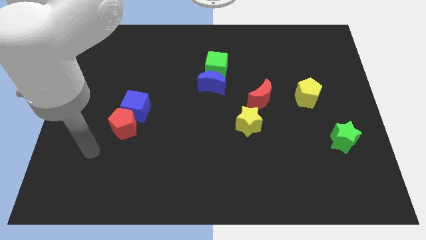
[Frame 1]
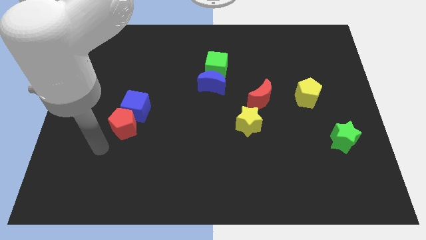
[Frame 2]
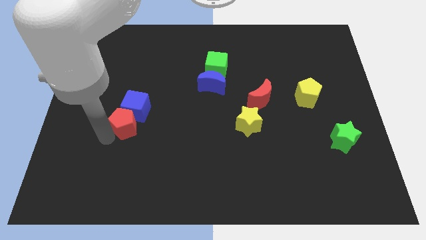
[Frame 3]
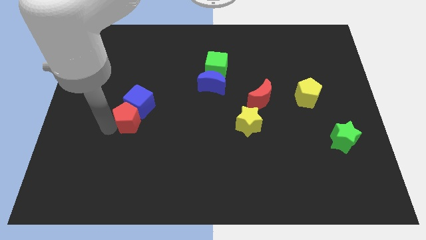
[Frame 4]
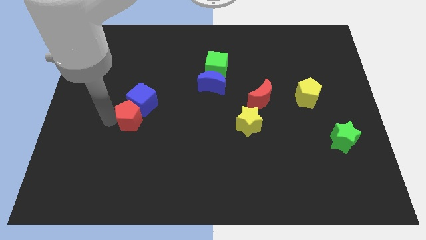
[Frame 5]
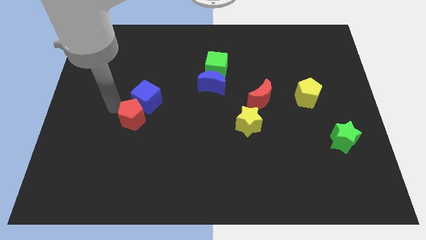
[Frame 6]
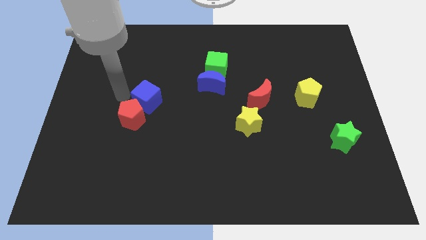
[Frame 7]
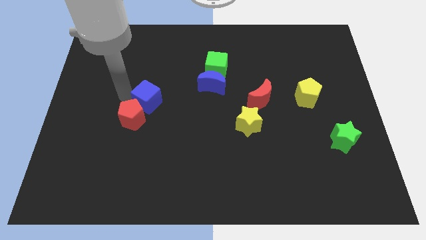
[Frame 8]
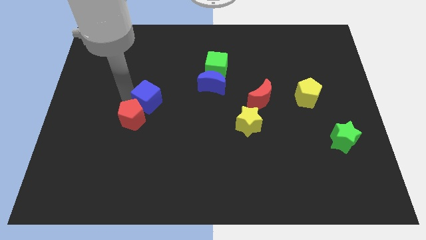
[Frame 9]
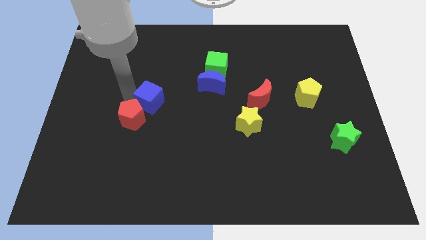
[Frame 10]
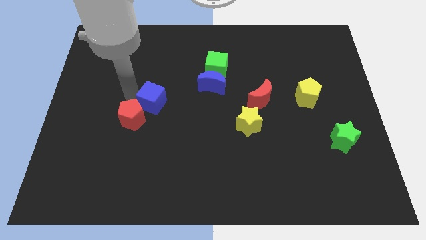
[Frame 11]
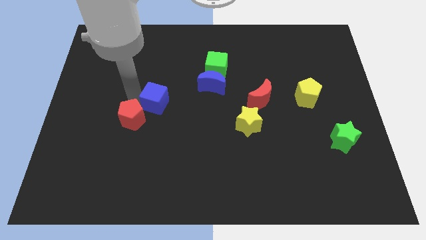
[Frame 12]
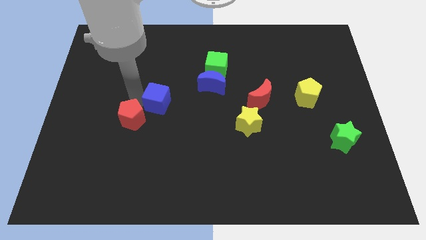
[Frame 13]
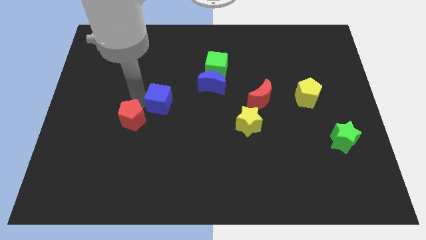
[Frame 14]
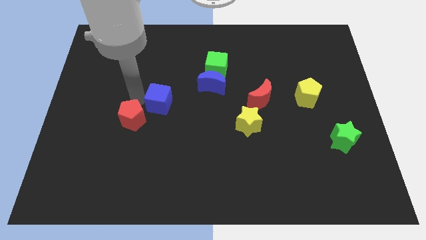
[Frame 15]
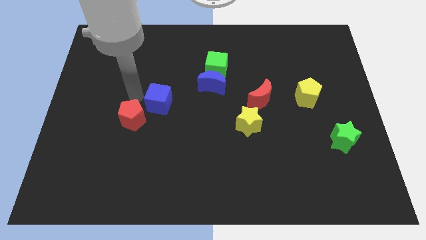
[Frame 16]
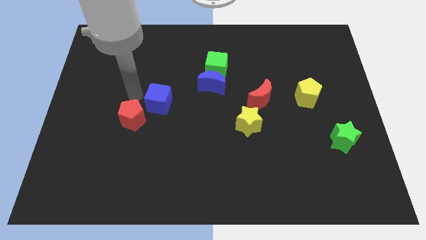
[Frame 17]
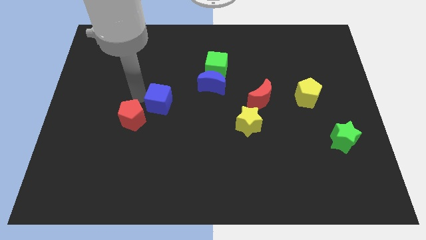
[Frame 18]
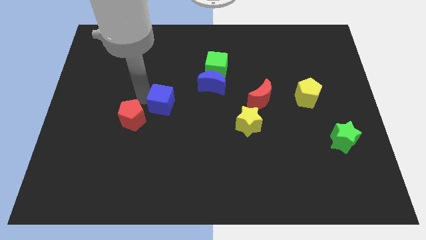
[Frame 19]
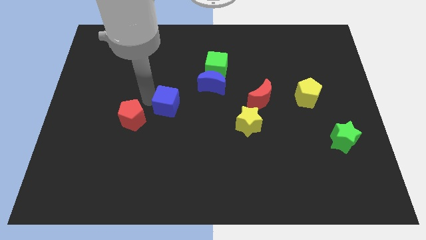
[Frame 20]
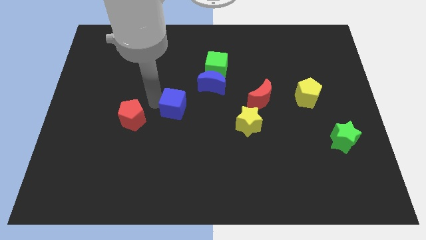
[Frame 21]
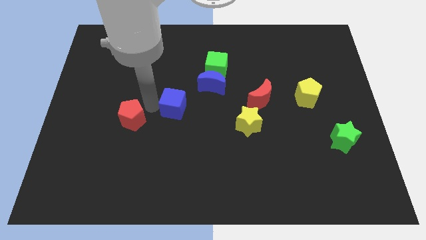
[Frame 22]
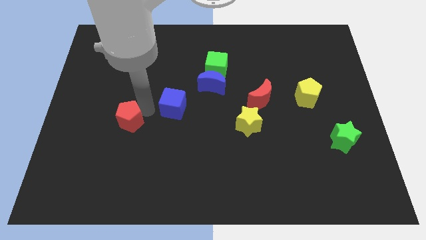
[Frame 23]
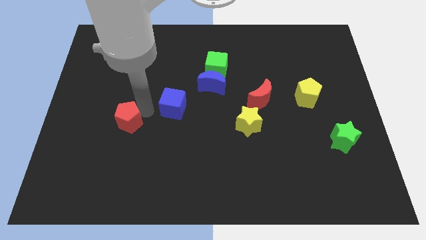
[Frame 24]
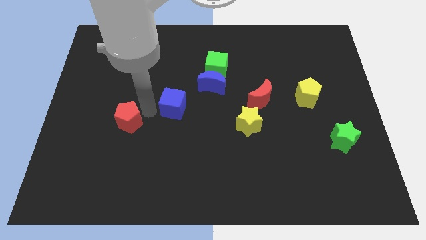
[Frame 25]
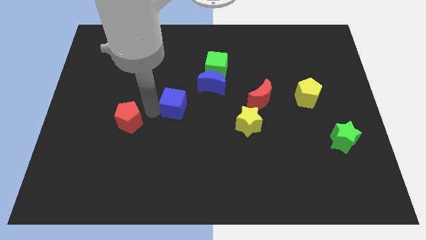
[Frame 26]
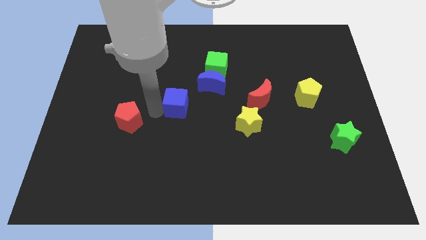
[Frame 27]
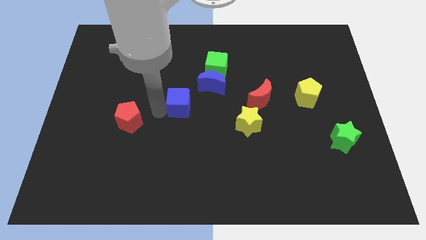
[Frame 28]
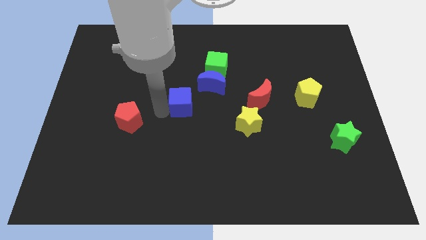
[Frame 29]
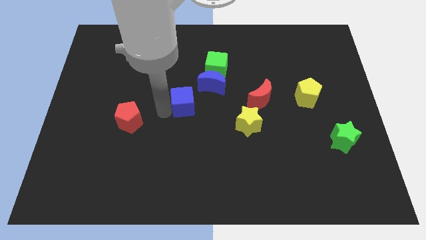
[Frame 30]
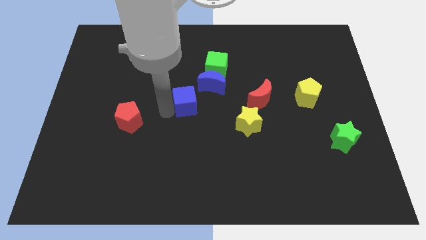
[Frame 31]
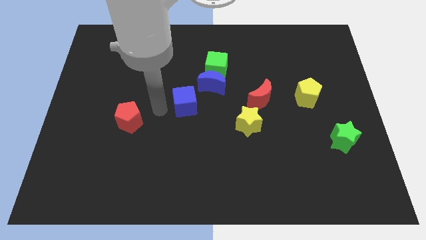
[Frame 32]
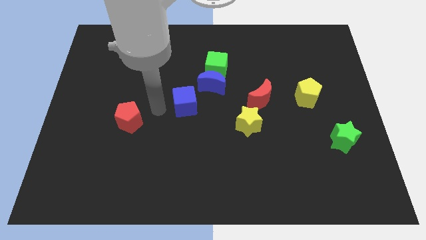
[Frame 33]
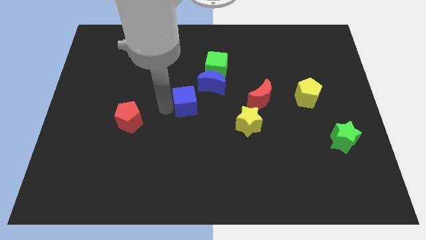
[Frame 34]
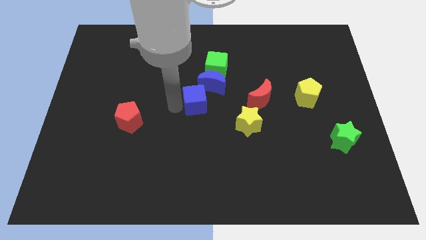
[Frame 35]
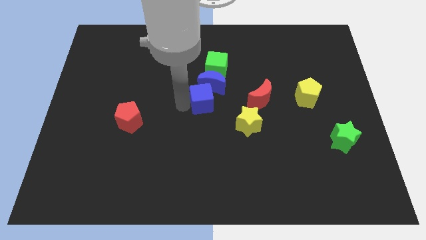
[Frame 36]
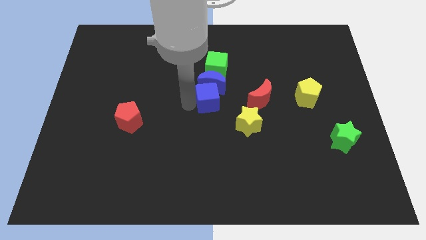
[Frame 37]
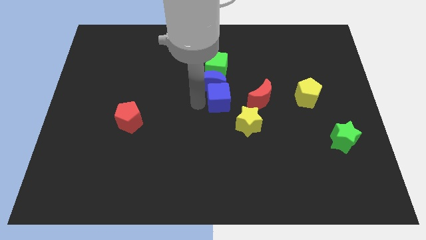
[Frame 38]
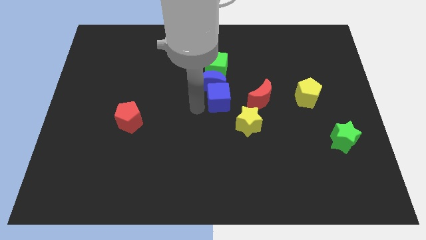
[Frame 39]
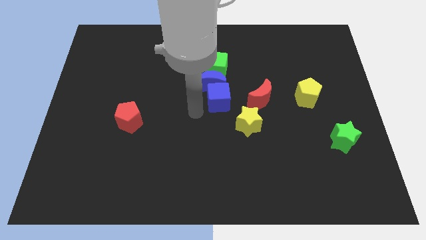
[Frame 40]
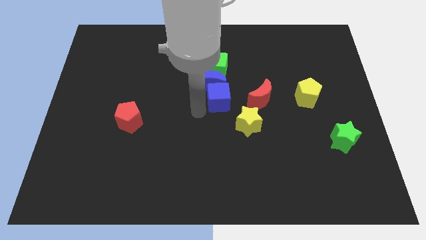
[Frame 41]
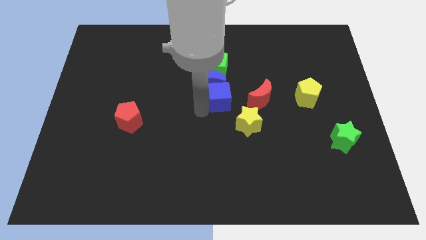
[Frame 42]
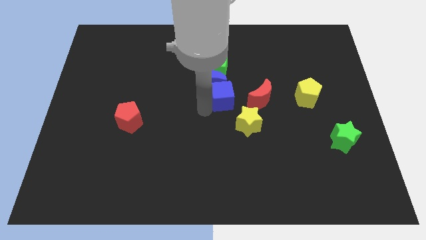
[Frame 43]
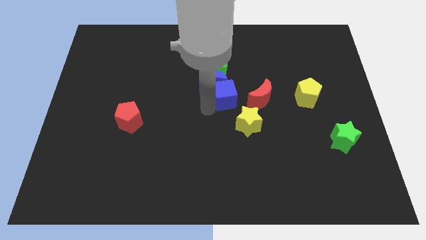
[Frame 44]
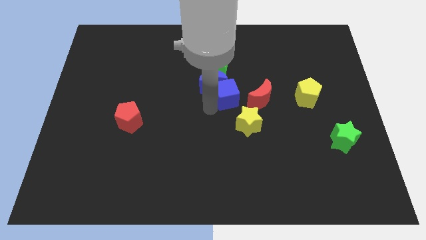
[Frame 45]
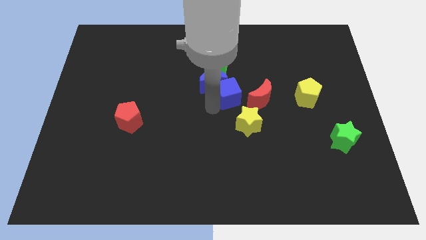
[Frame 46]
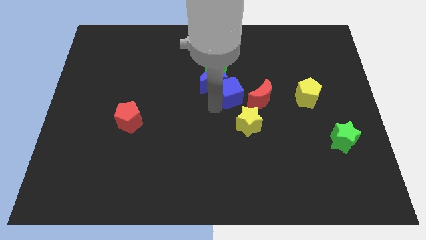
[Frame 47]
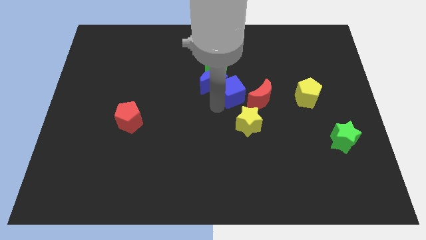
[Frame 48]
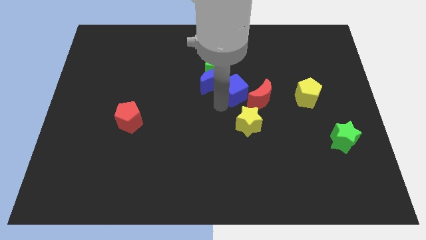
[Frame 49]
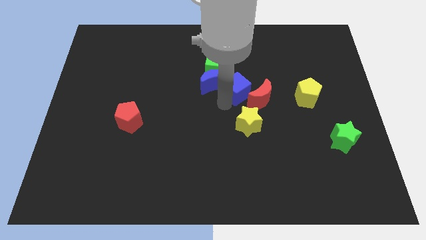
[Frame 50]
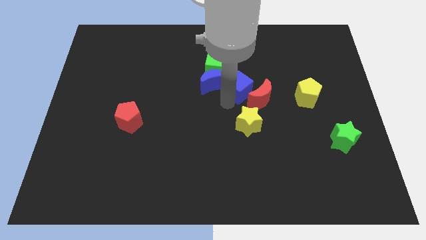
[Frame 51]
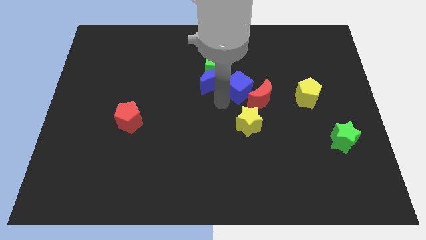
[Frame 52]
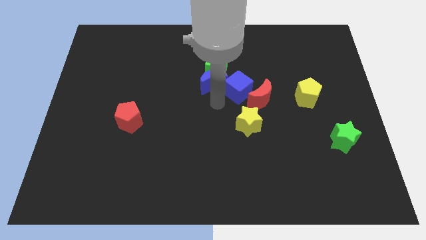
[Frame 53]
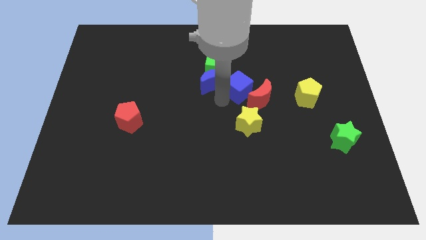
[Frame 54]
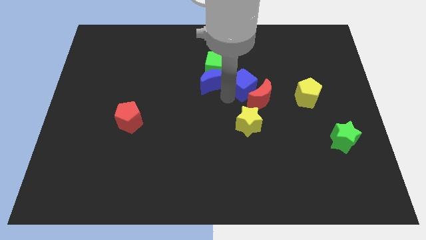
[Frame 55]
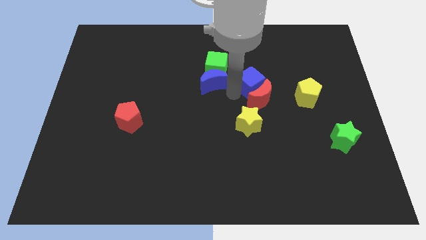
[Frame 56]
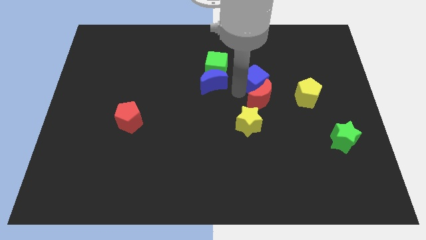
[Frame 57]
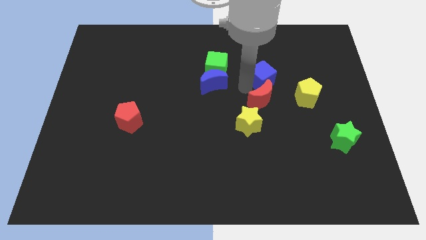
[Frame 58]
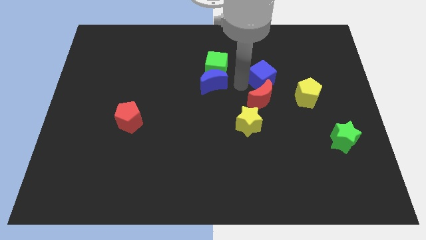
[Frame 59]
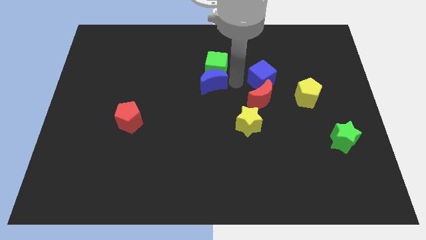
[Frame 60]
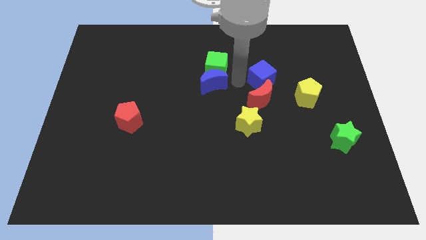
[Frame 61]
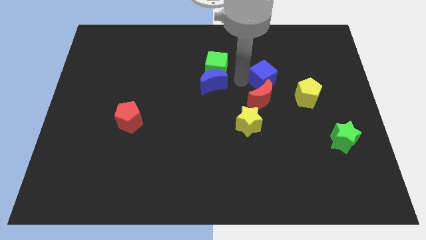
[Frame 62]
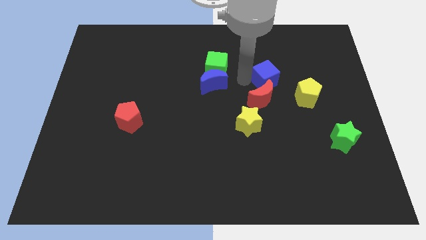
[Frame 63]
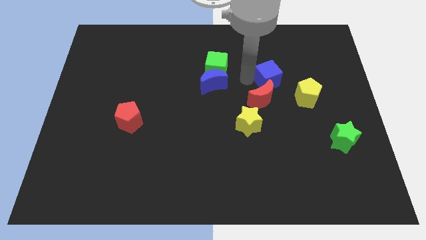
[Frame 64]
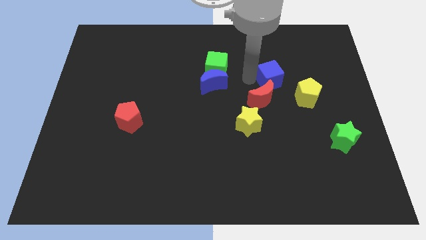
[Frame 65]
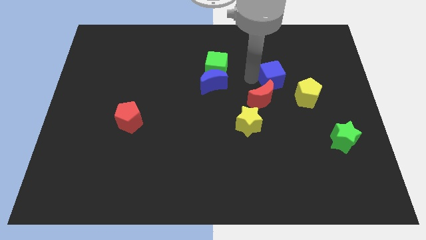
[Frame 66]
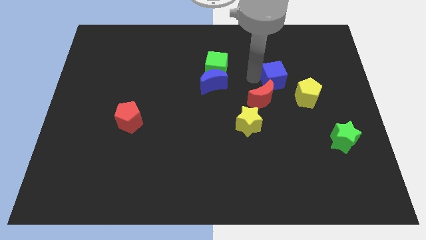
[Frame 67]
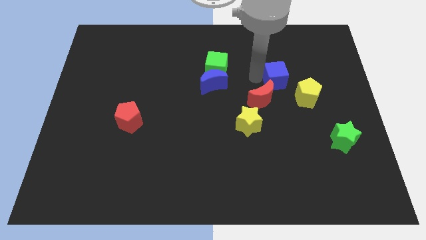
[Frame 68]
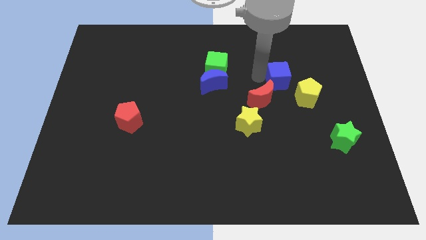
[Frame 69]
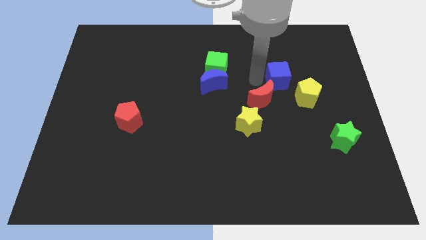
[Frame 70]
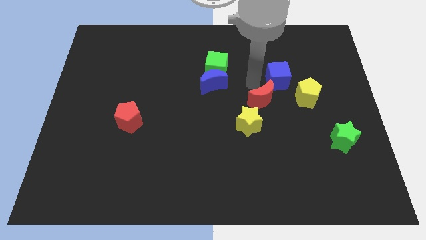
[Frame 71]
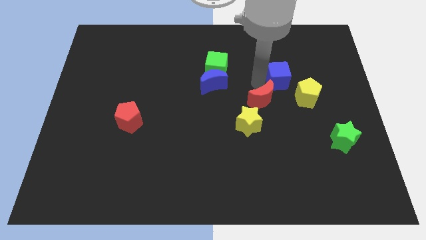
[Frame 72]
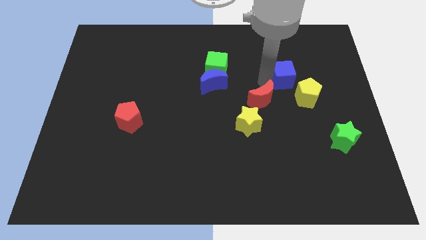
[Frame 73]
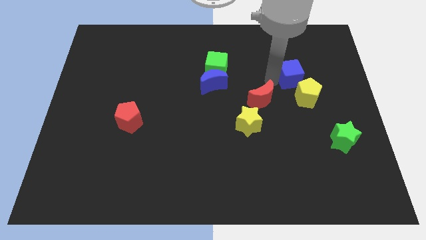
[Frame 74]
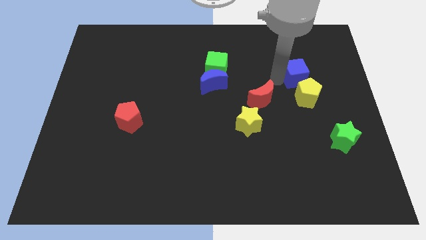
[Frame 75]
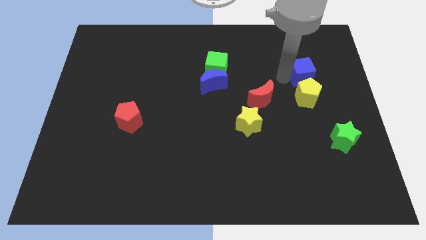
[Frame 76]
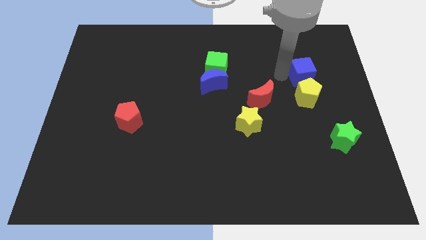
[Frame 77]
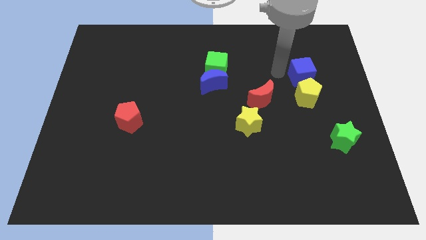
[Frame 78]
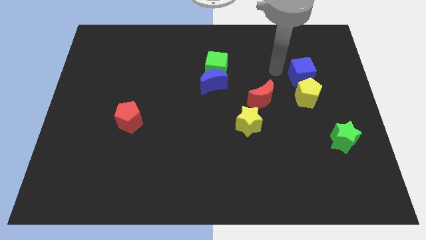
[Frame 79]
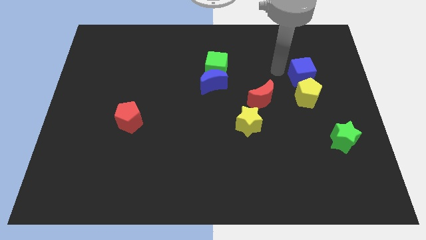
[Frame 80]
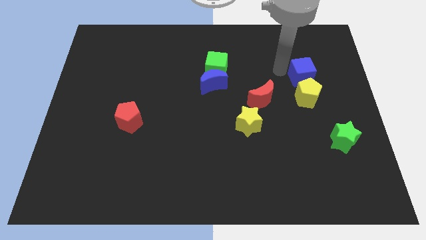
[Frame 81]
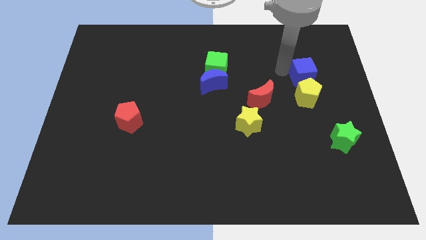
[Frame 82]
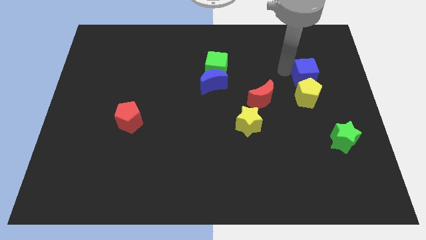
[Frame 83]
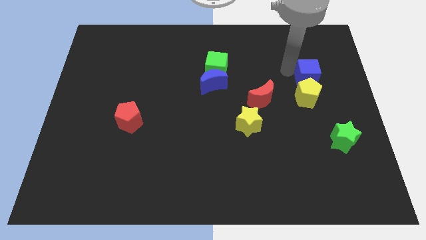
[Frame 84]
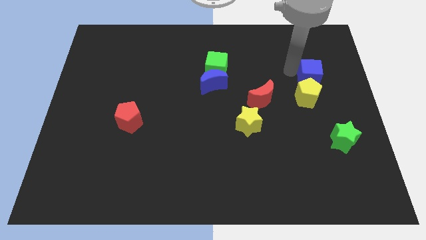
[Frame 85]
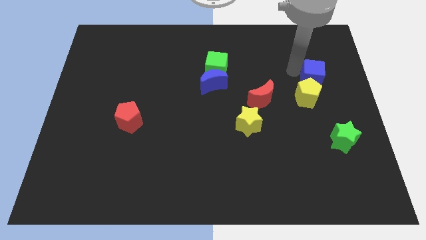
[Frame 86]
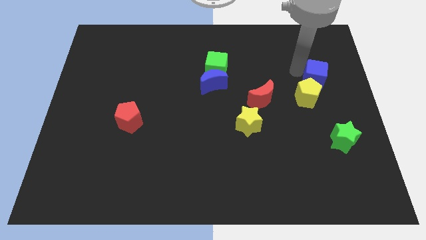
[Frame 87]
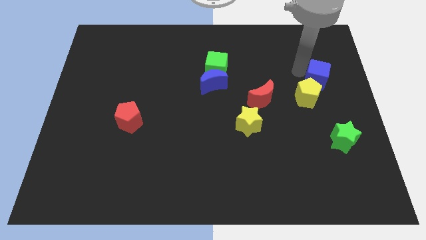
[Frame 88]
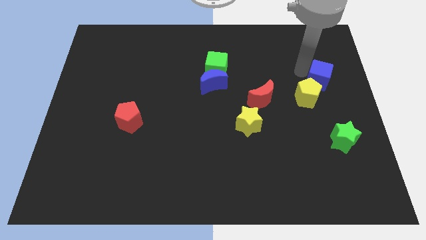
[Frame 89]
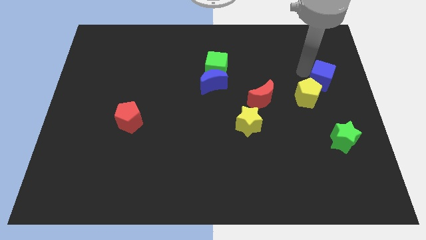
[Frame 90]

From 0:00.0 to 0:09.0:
put the blue cube to the right side of the board
